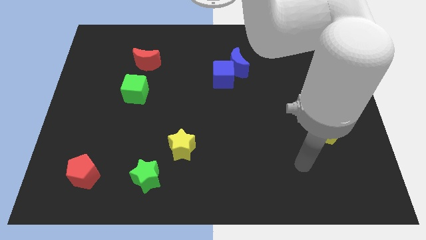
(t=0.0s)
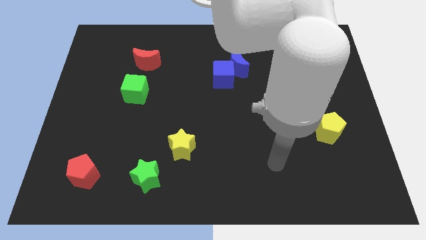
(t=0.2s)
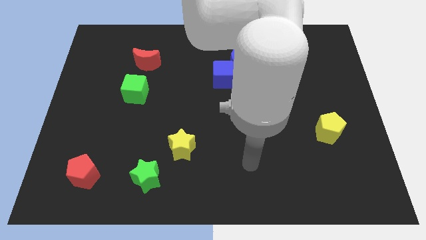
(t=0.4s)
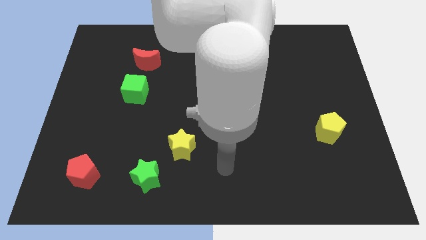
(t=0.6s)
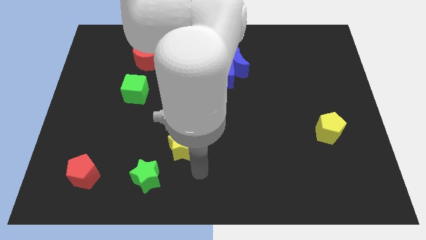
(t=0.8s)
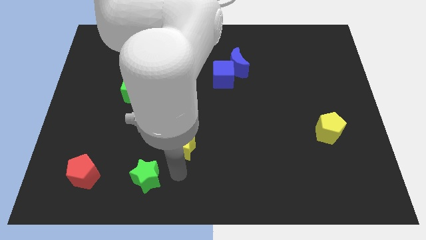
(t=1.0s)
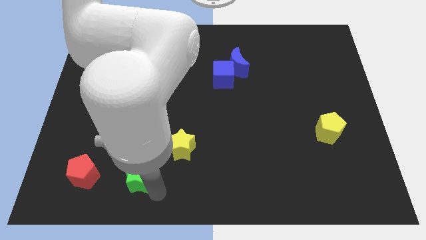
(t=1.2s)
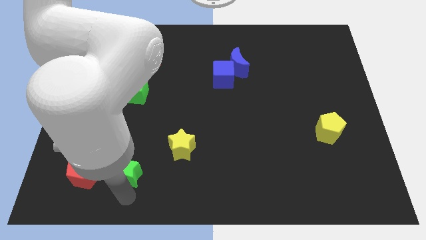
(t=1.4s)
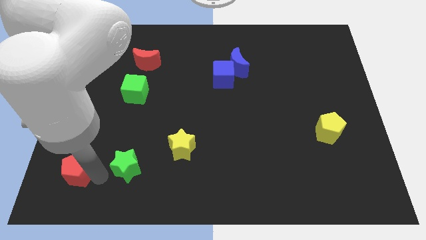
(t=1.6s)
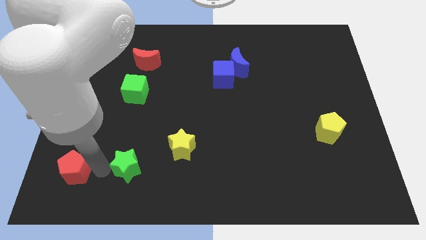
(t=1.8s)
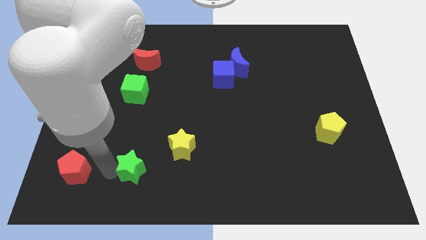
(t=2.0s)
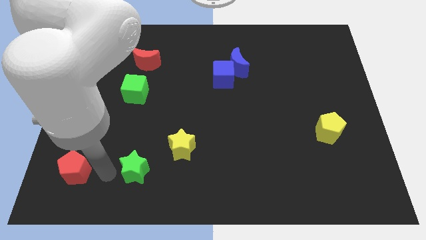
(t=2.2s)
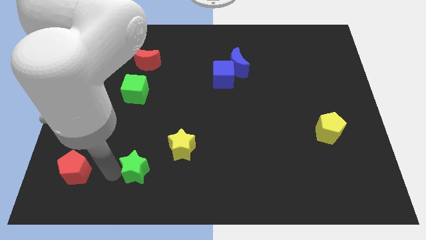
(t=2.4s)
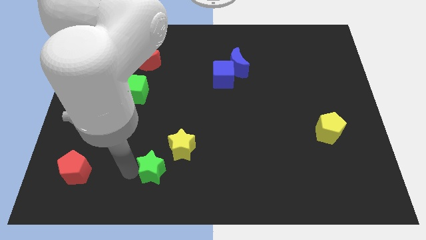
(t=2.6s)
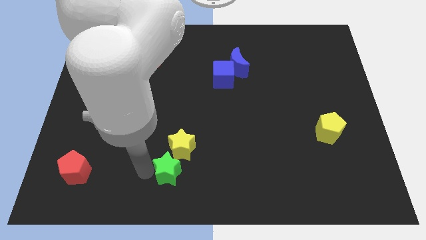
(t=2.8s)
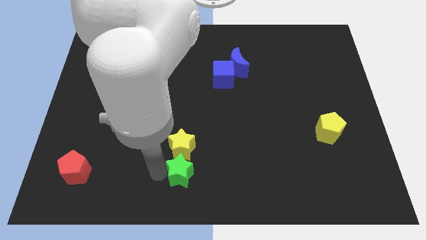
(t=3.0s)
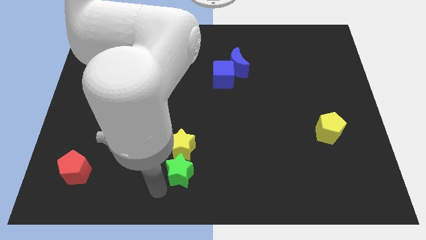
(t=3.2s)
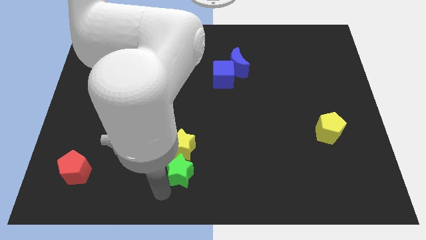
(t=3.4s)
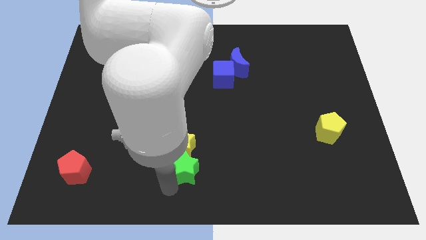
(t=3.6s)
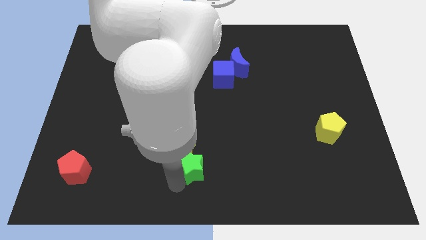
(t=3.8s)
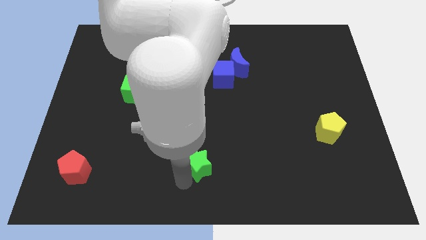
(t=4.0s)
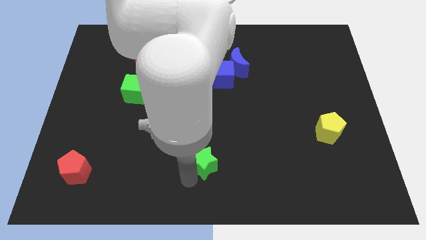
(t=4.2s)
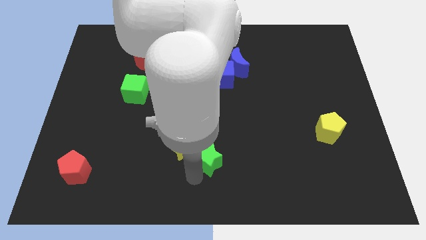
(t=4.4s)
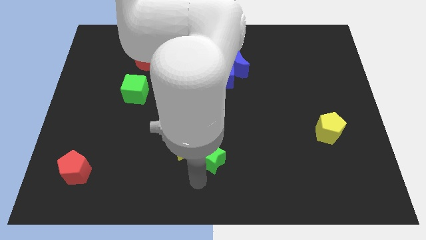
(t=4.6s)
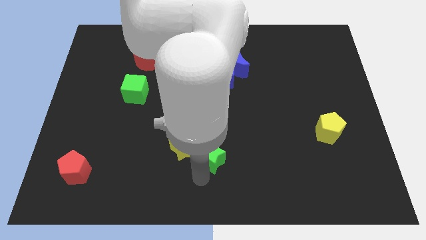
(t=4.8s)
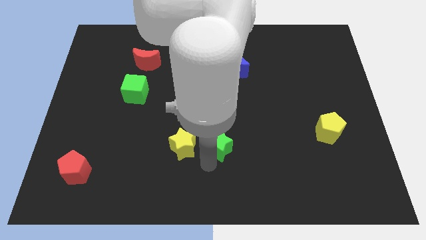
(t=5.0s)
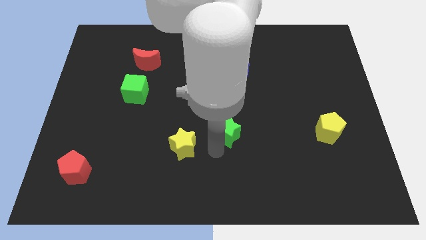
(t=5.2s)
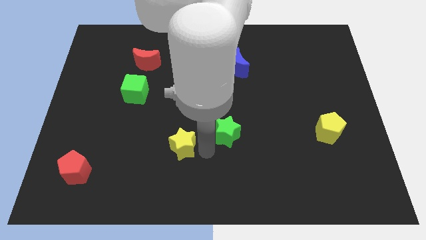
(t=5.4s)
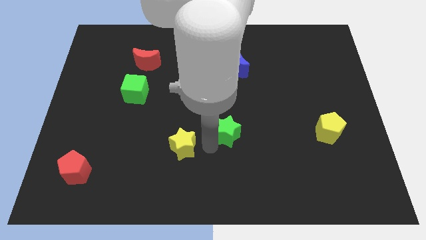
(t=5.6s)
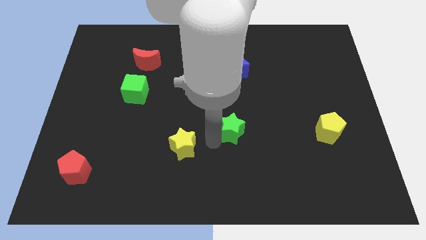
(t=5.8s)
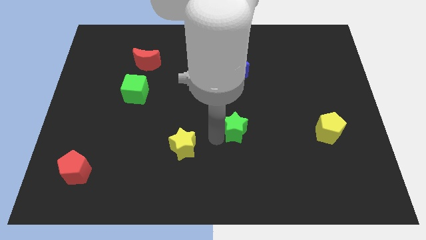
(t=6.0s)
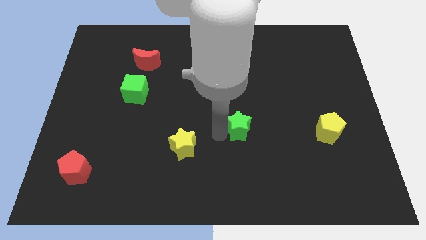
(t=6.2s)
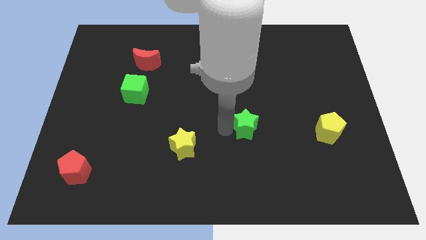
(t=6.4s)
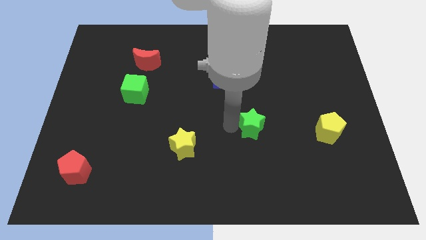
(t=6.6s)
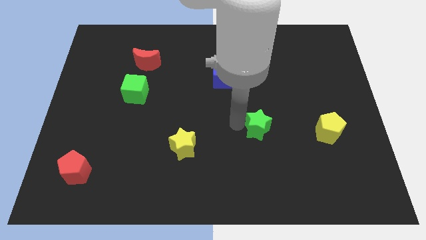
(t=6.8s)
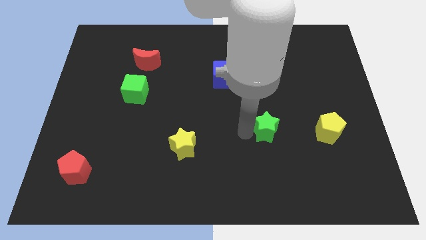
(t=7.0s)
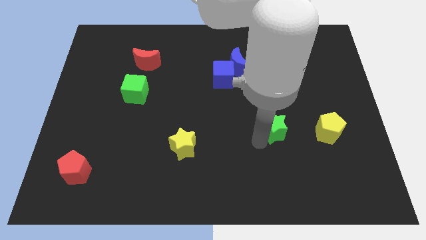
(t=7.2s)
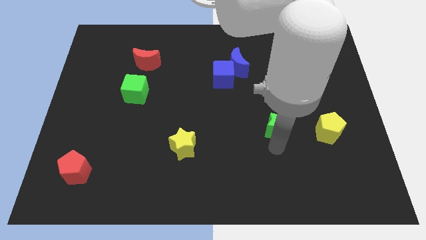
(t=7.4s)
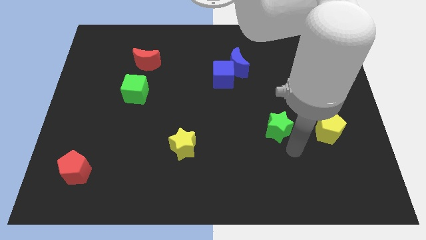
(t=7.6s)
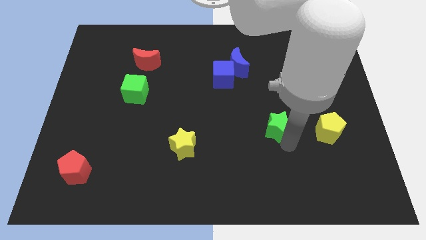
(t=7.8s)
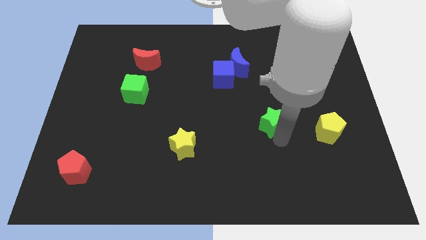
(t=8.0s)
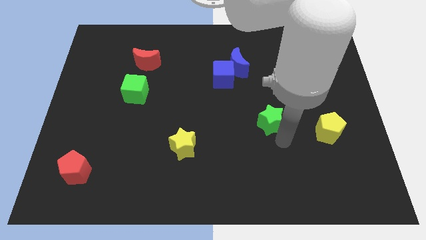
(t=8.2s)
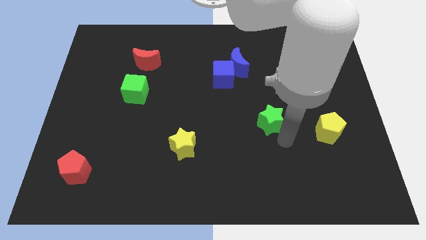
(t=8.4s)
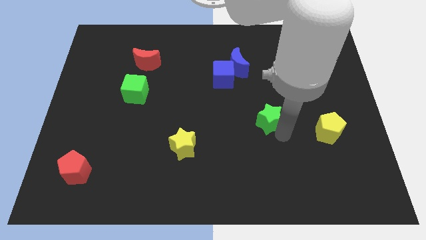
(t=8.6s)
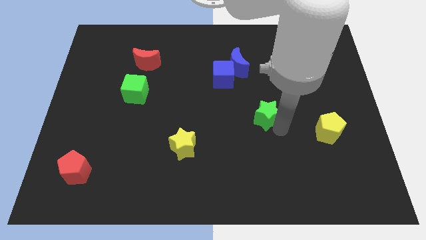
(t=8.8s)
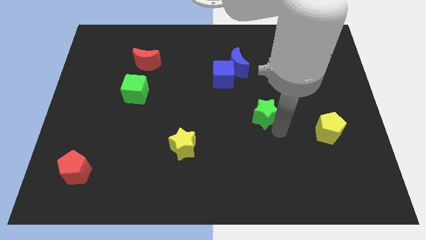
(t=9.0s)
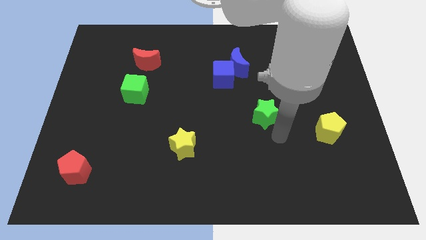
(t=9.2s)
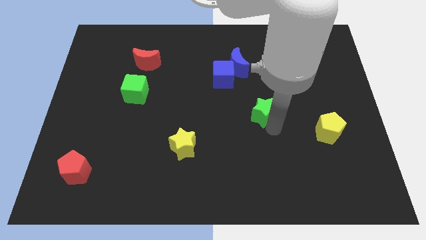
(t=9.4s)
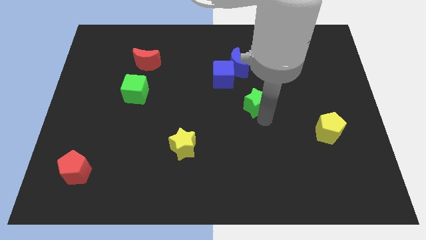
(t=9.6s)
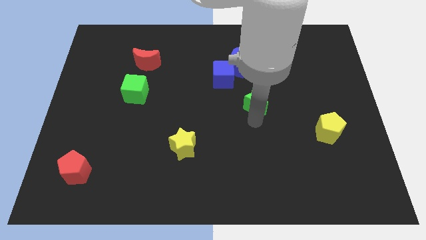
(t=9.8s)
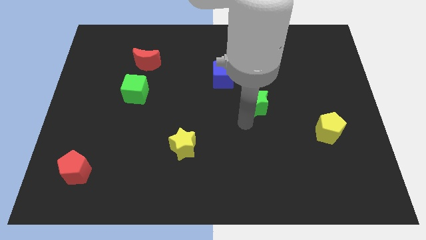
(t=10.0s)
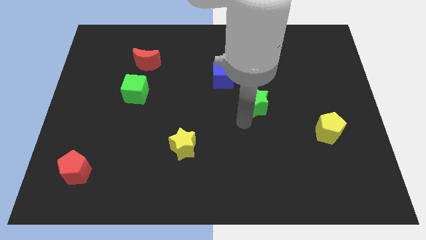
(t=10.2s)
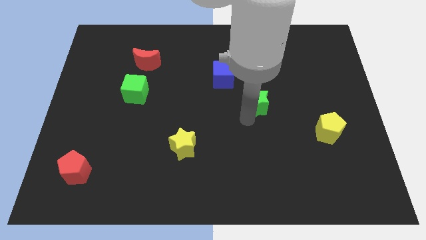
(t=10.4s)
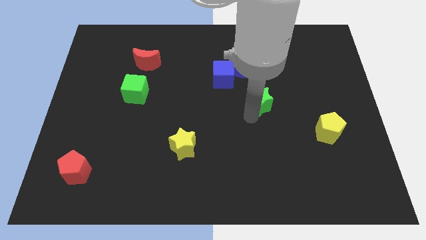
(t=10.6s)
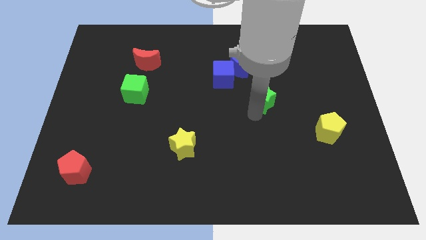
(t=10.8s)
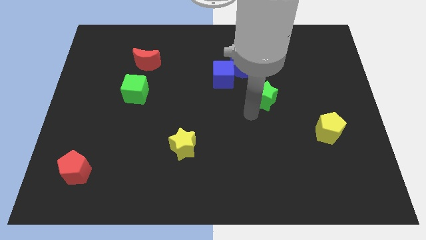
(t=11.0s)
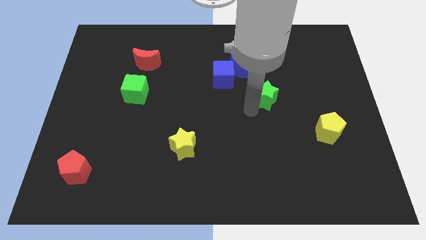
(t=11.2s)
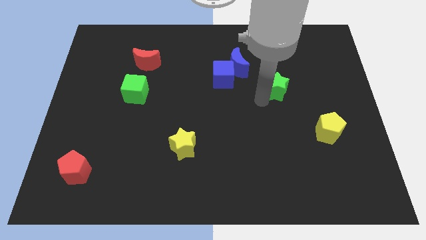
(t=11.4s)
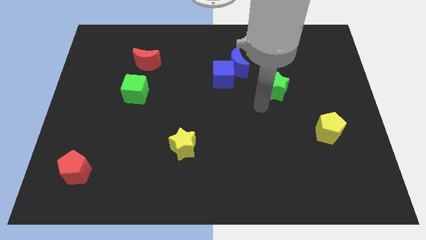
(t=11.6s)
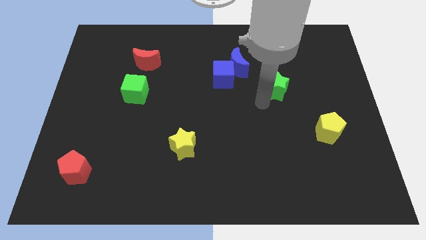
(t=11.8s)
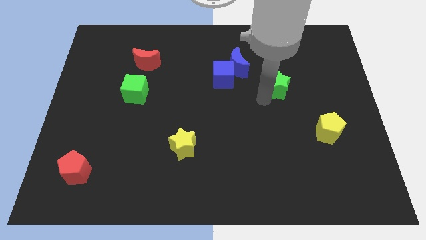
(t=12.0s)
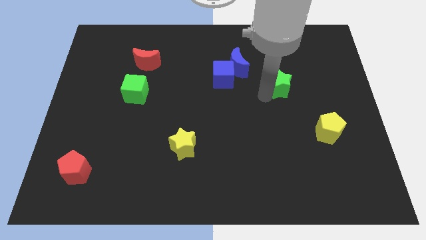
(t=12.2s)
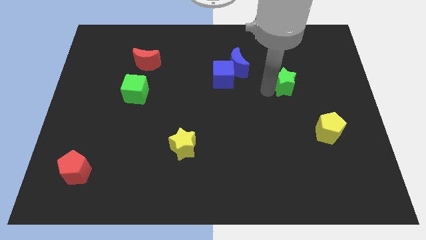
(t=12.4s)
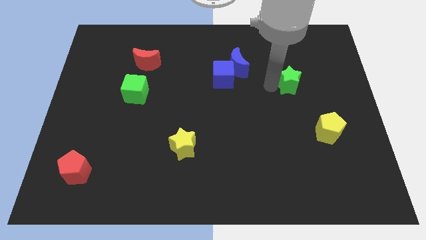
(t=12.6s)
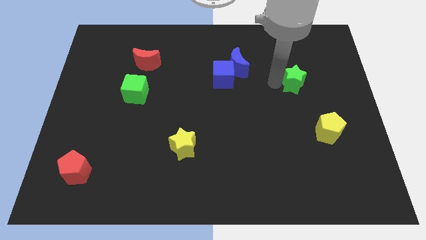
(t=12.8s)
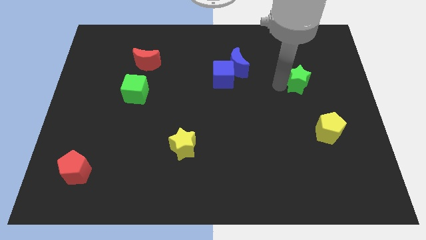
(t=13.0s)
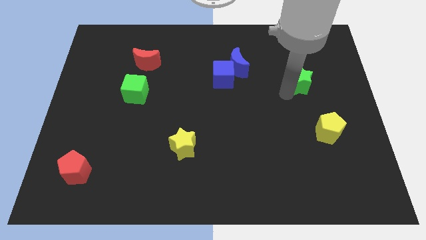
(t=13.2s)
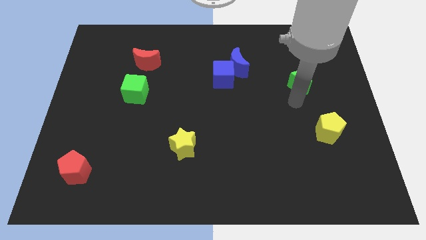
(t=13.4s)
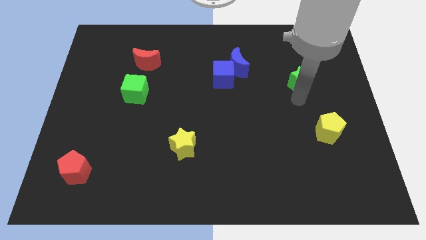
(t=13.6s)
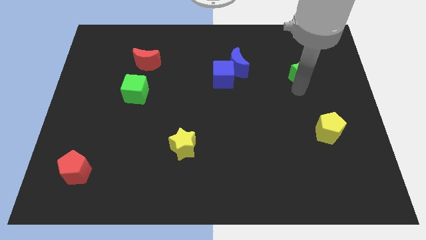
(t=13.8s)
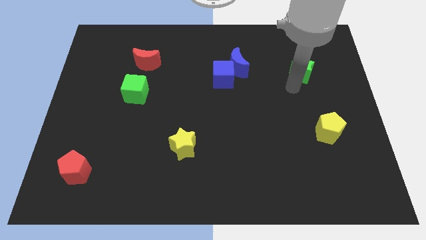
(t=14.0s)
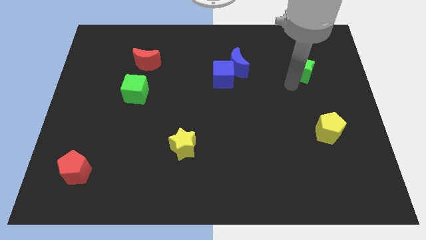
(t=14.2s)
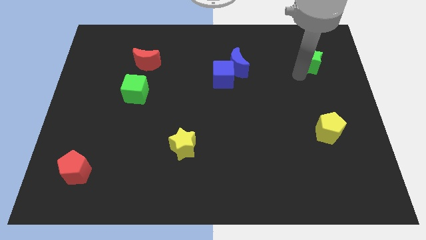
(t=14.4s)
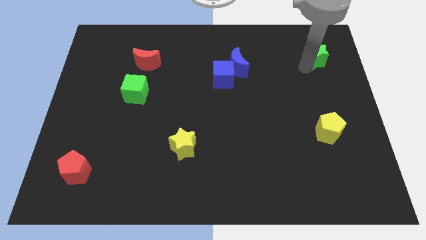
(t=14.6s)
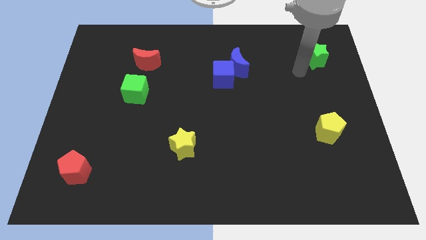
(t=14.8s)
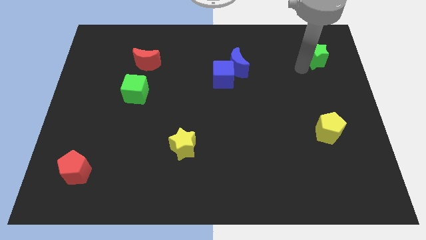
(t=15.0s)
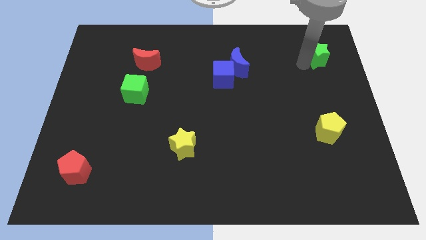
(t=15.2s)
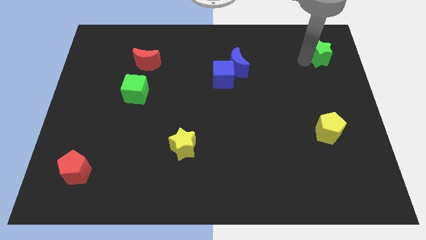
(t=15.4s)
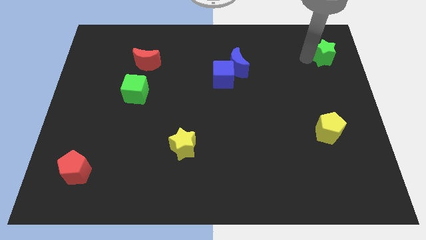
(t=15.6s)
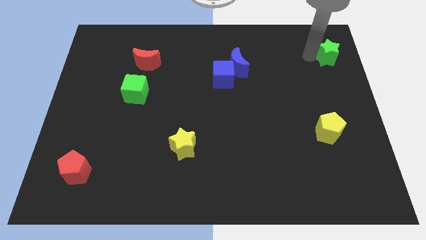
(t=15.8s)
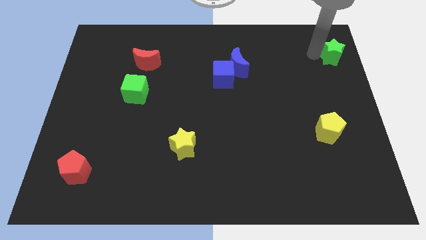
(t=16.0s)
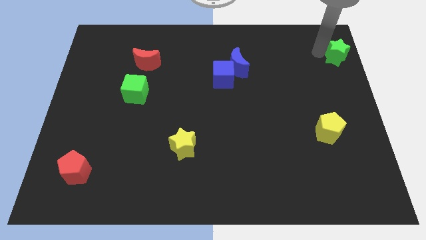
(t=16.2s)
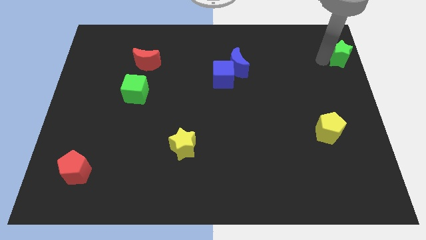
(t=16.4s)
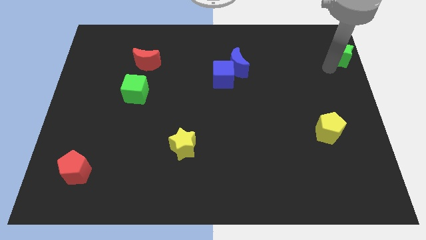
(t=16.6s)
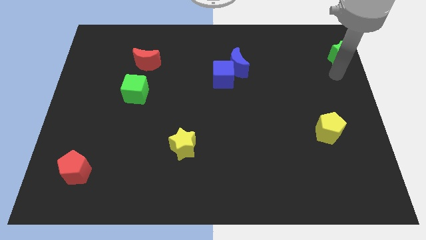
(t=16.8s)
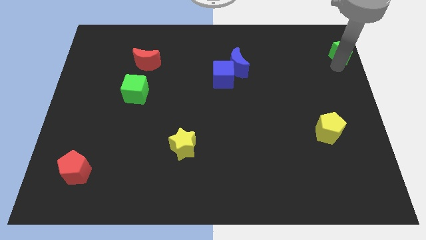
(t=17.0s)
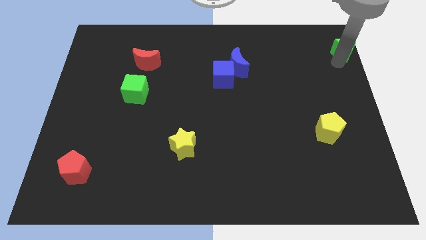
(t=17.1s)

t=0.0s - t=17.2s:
slide the green star to the top right of the board
